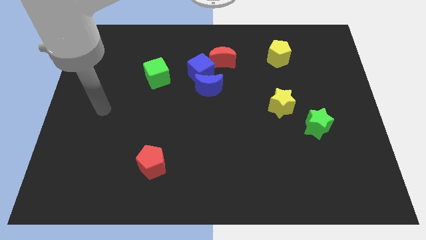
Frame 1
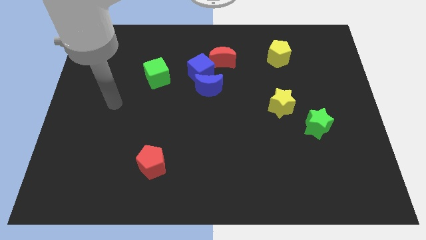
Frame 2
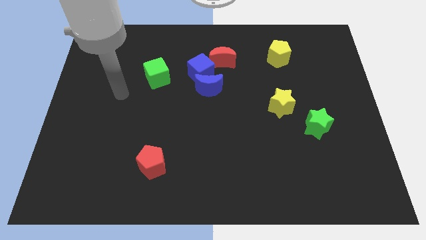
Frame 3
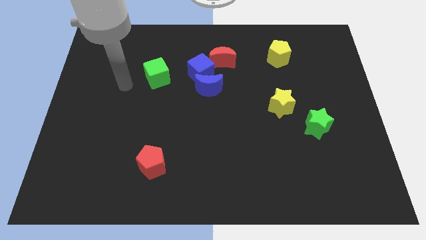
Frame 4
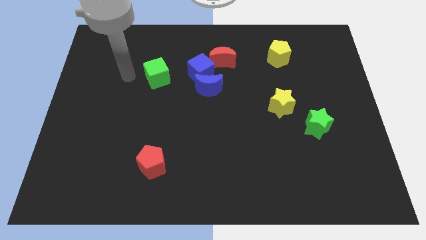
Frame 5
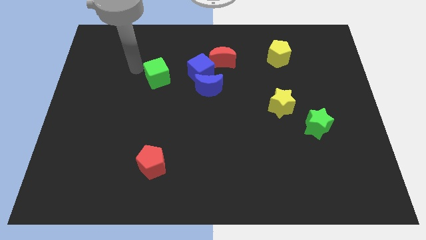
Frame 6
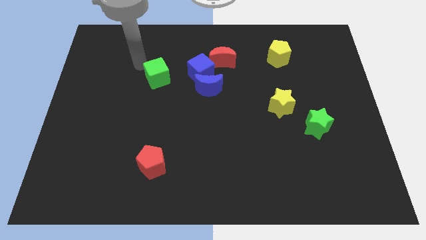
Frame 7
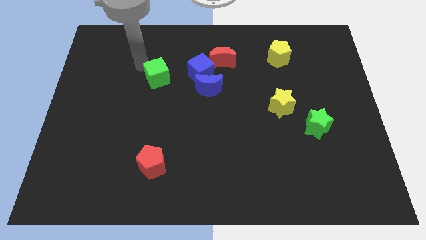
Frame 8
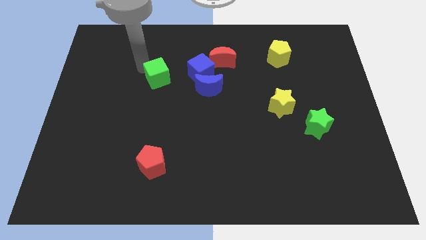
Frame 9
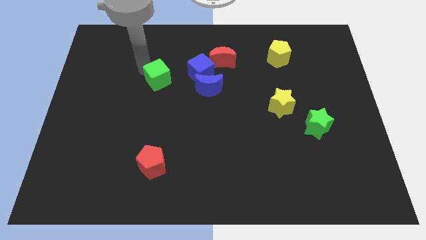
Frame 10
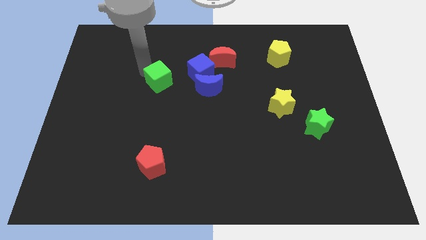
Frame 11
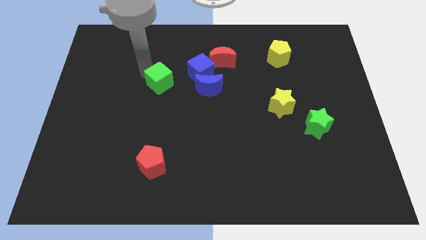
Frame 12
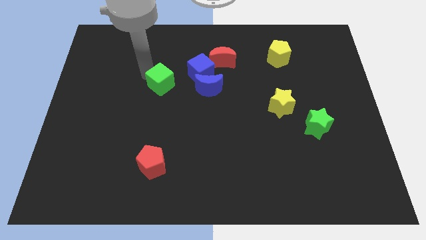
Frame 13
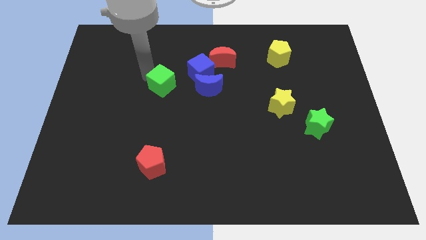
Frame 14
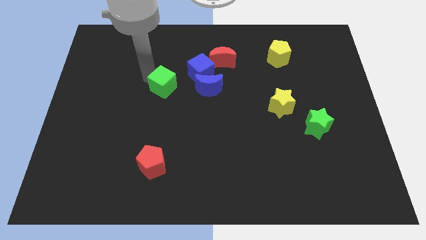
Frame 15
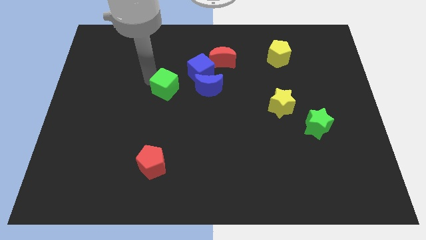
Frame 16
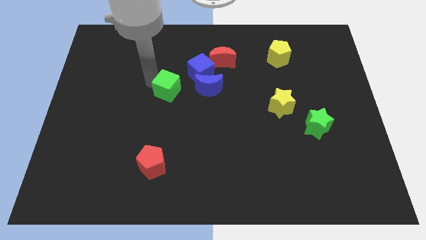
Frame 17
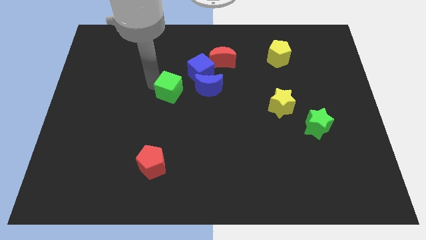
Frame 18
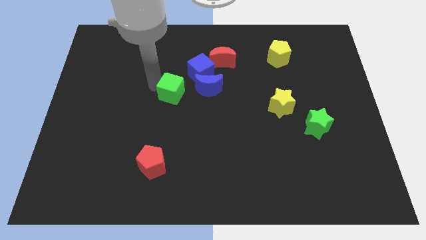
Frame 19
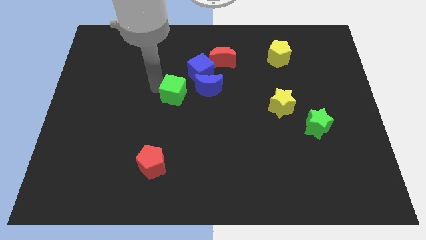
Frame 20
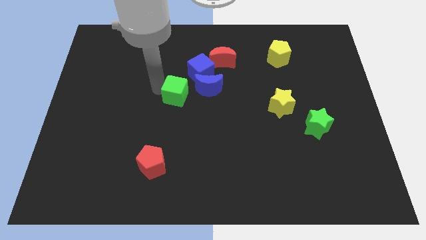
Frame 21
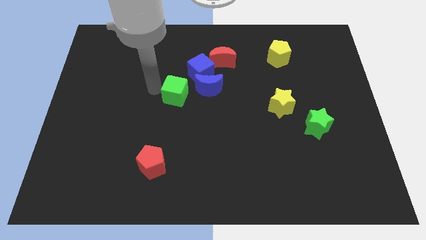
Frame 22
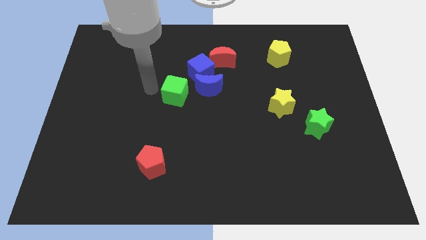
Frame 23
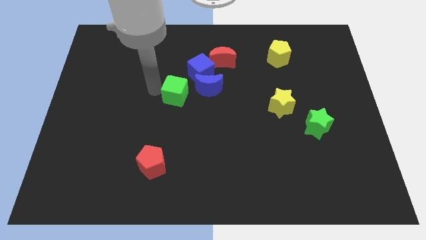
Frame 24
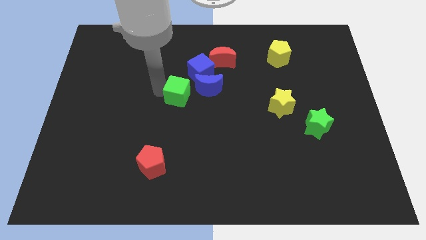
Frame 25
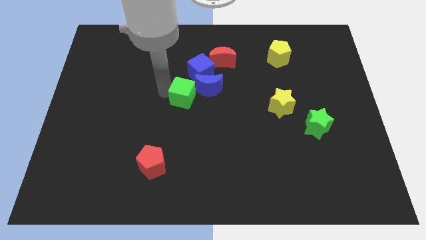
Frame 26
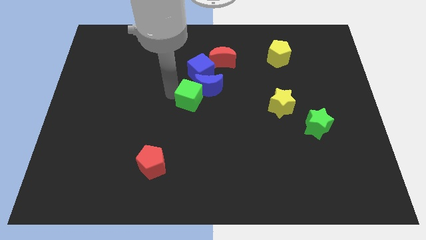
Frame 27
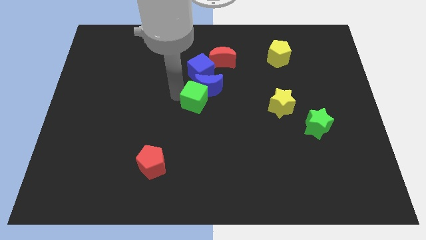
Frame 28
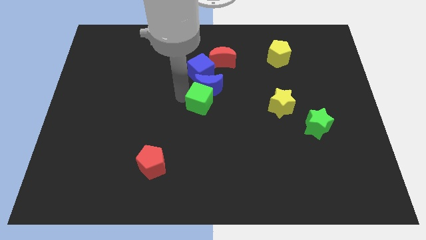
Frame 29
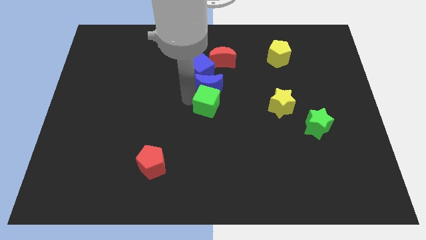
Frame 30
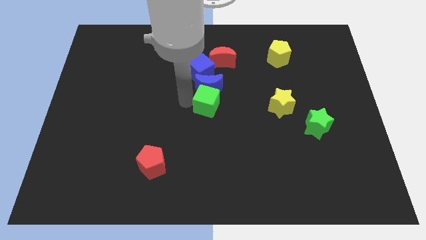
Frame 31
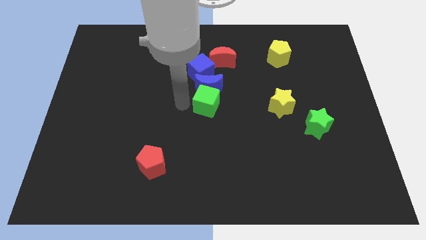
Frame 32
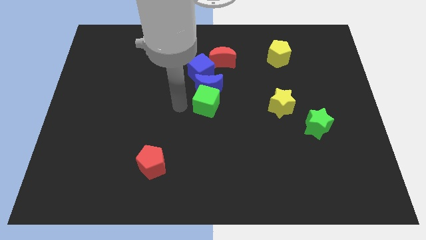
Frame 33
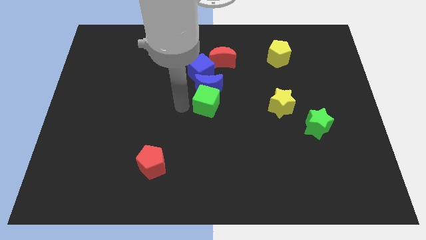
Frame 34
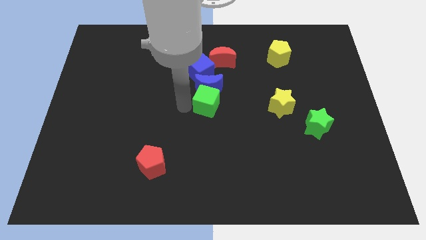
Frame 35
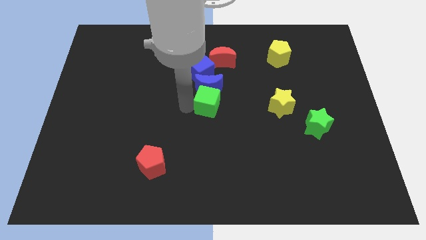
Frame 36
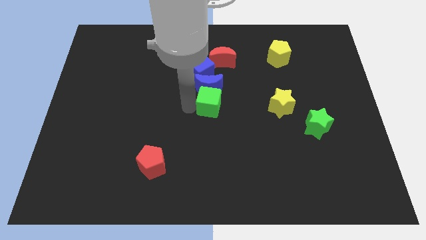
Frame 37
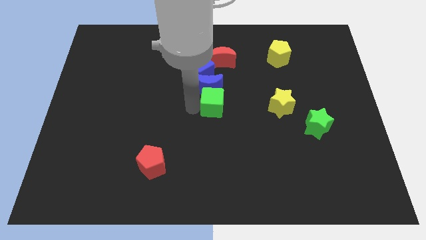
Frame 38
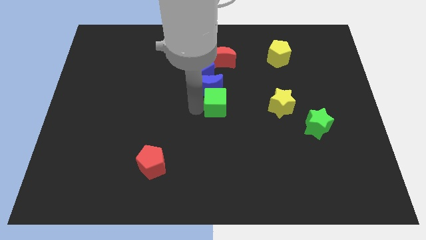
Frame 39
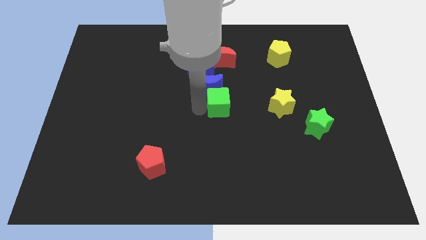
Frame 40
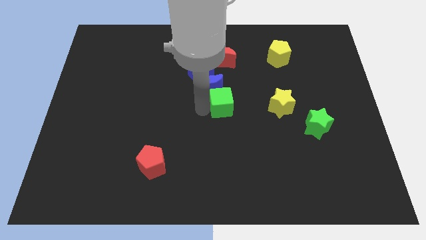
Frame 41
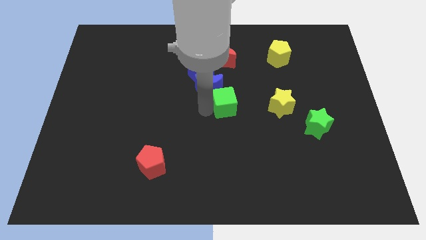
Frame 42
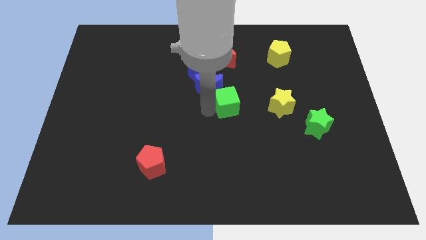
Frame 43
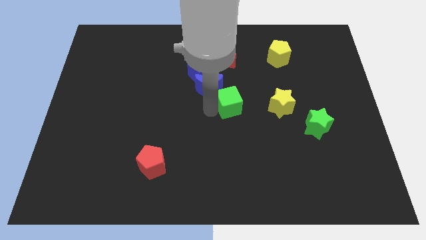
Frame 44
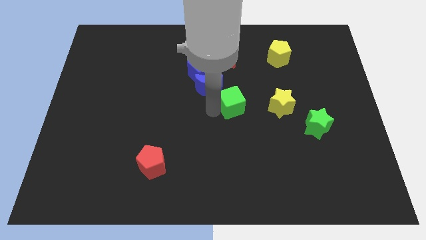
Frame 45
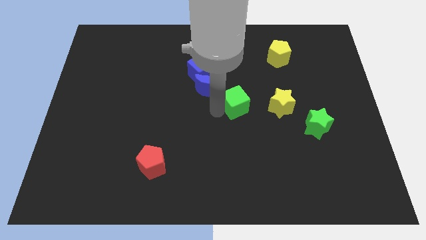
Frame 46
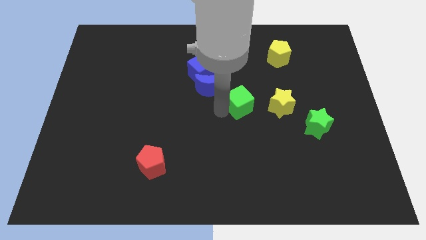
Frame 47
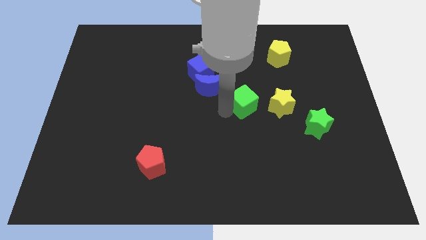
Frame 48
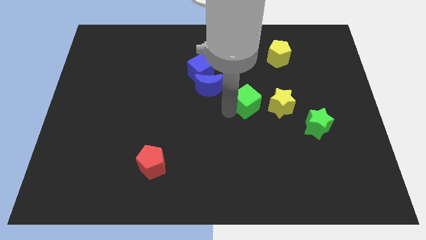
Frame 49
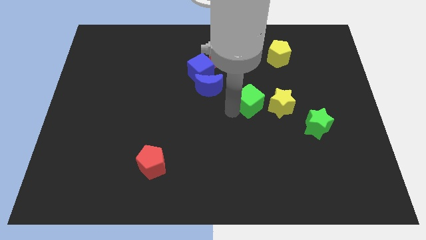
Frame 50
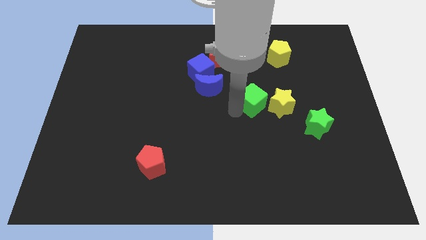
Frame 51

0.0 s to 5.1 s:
push the green cube right

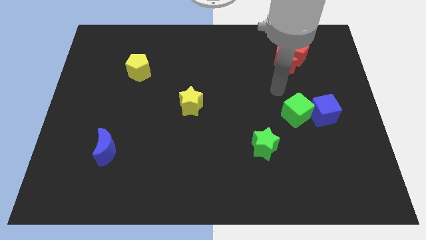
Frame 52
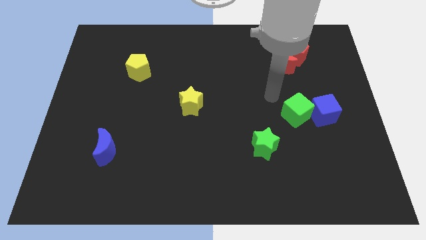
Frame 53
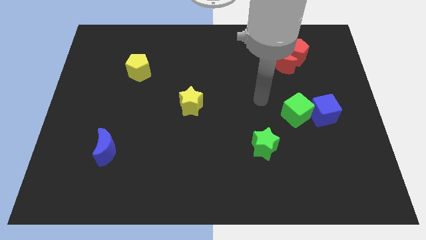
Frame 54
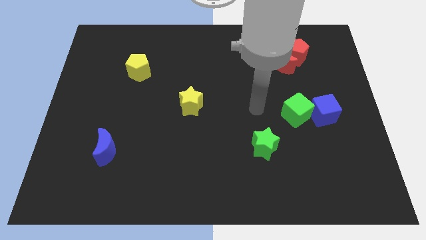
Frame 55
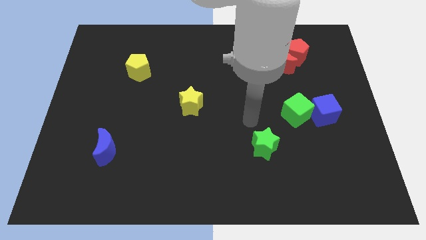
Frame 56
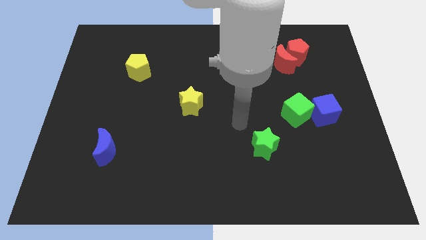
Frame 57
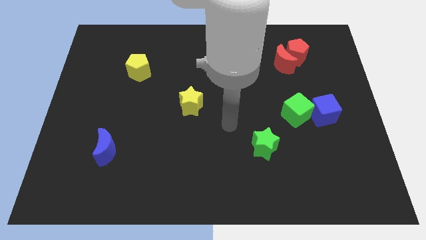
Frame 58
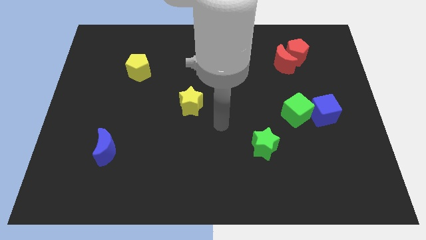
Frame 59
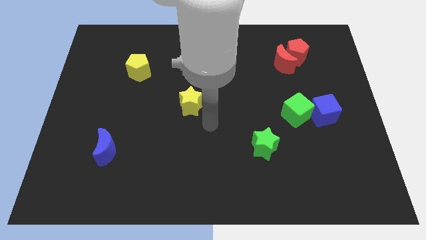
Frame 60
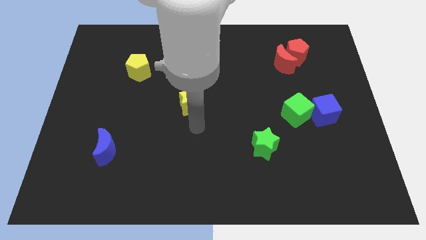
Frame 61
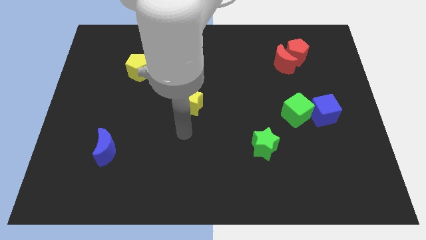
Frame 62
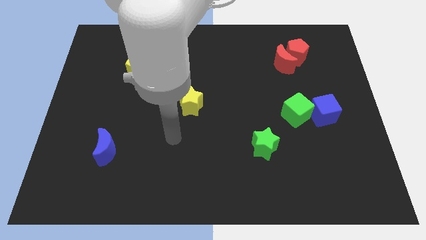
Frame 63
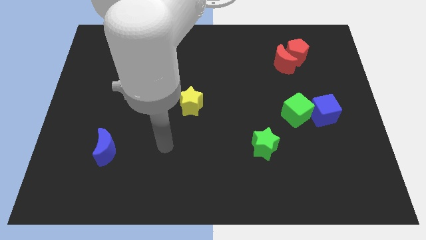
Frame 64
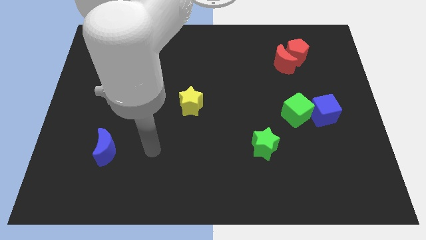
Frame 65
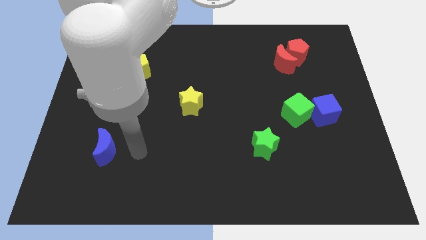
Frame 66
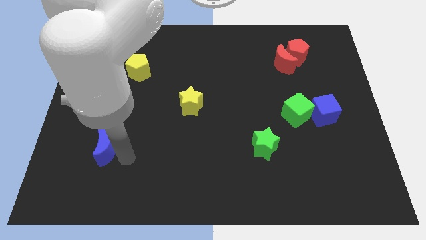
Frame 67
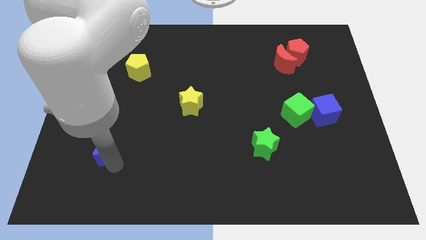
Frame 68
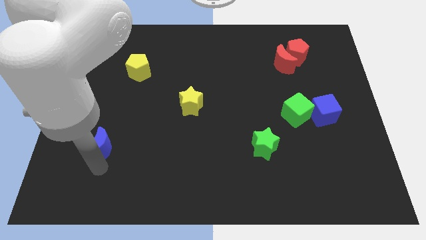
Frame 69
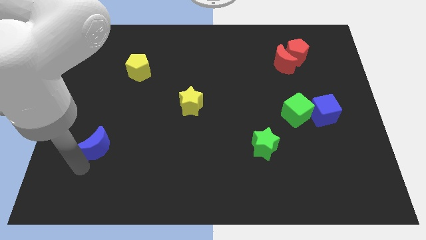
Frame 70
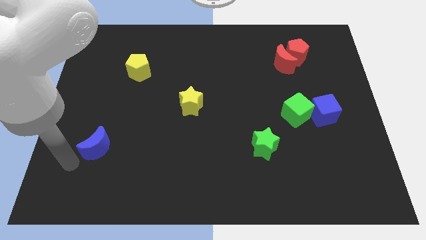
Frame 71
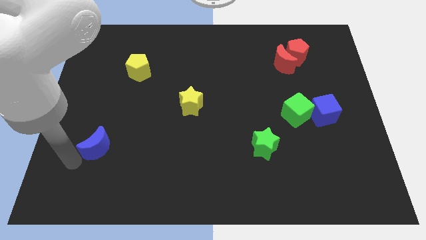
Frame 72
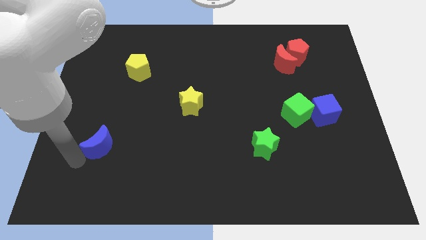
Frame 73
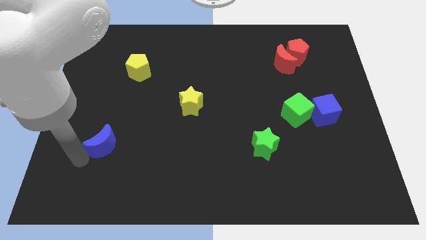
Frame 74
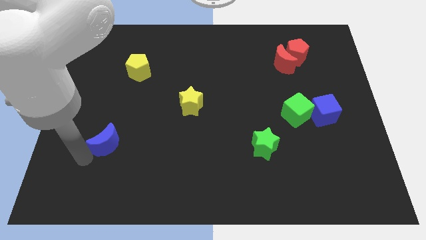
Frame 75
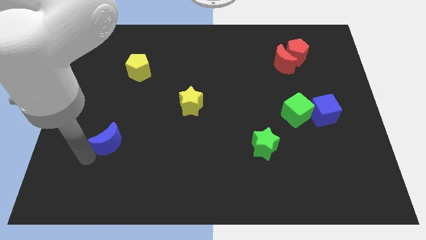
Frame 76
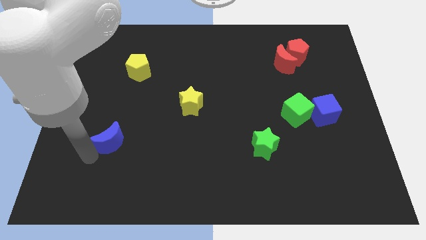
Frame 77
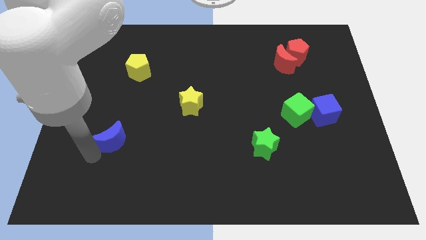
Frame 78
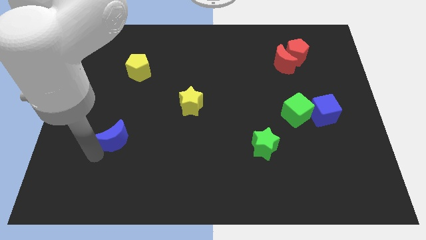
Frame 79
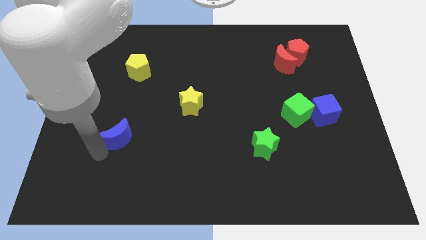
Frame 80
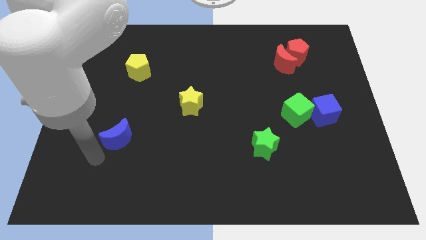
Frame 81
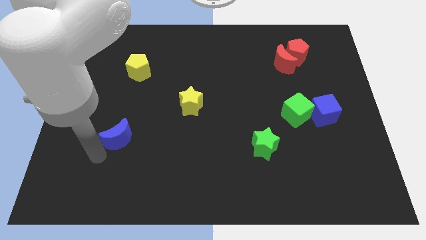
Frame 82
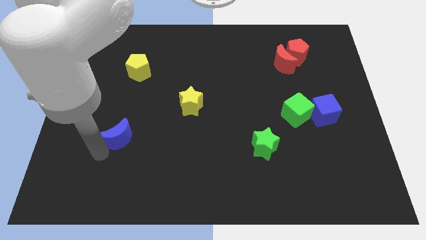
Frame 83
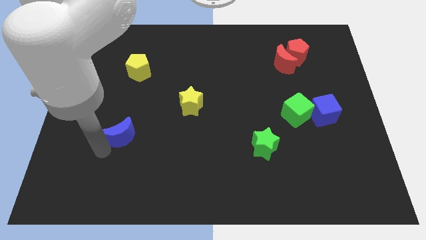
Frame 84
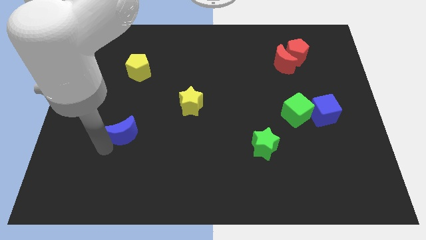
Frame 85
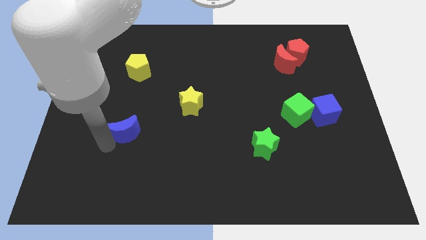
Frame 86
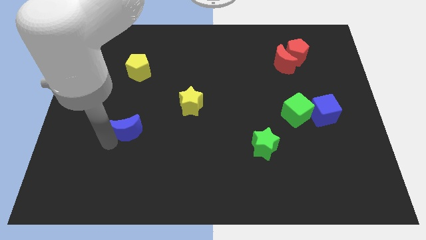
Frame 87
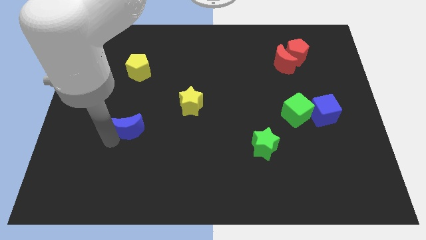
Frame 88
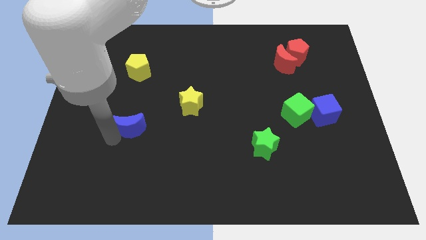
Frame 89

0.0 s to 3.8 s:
slide the blue moon up and to the right diagonally a little bit
